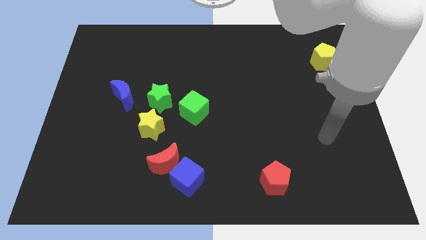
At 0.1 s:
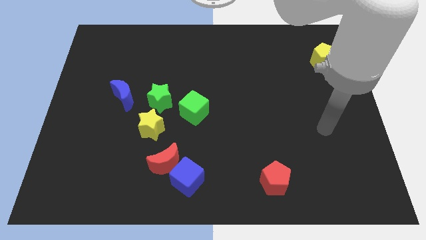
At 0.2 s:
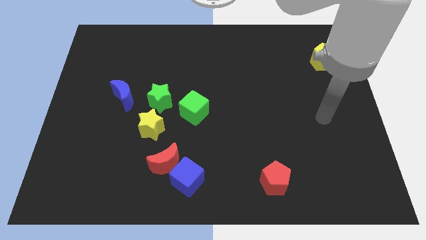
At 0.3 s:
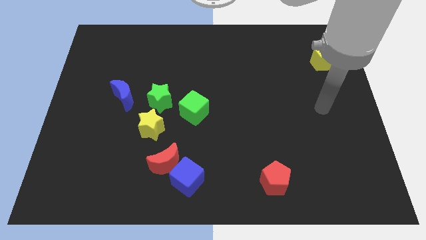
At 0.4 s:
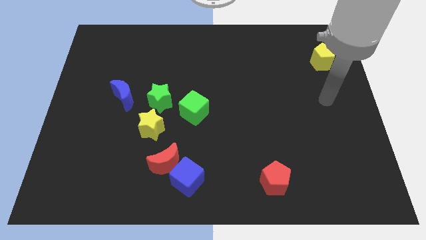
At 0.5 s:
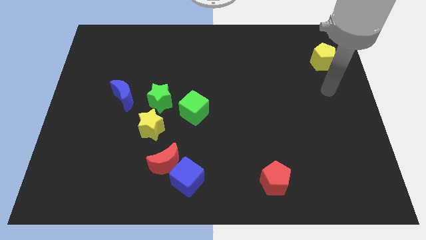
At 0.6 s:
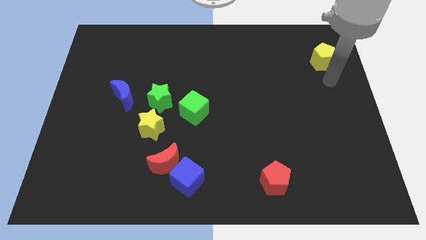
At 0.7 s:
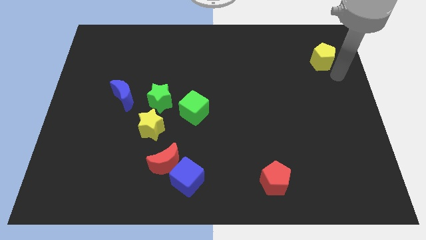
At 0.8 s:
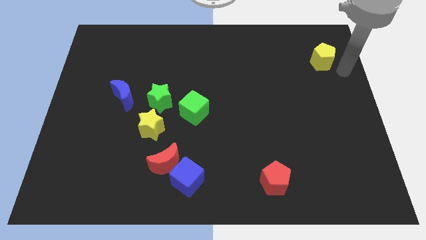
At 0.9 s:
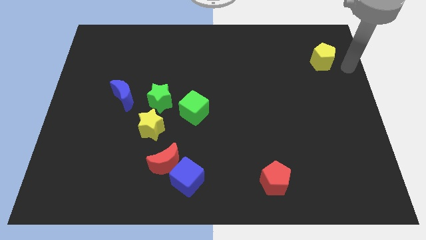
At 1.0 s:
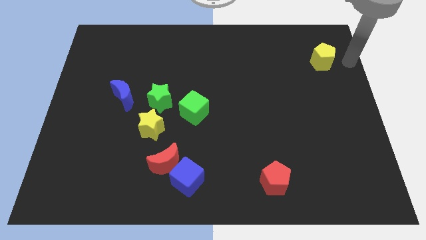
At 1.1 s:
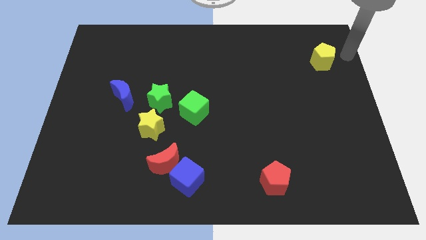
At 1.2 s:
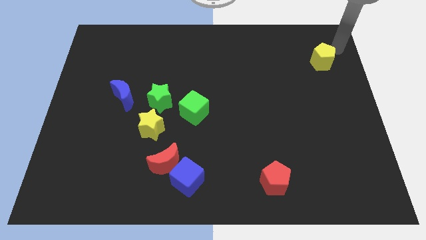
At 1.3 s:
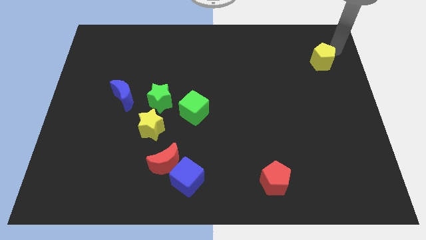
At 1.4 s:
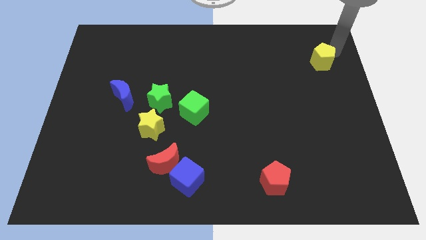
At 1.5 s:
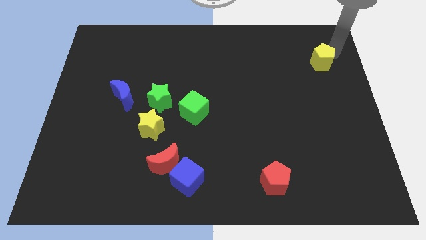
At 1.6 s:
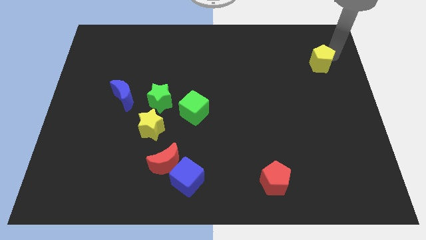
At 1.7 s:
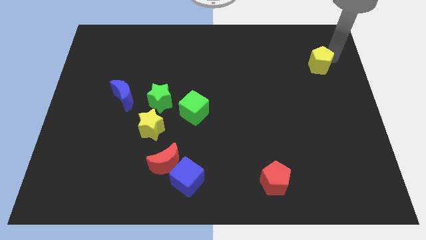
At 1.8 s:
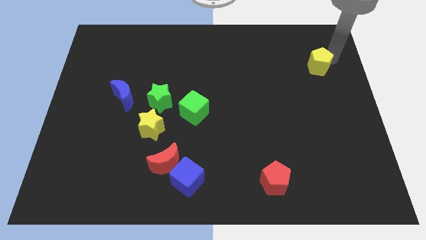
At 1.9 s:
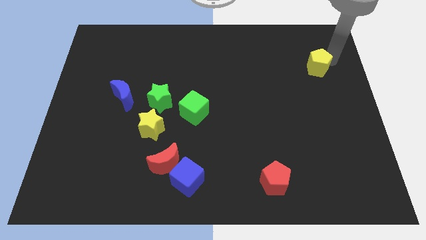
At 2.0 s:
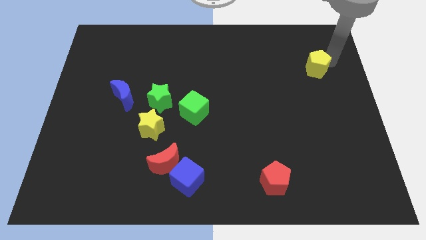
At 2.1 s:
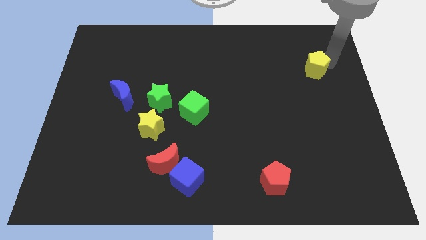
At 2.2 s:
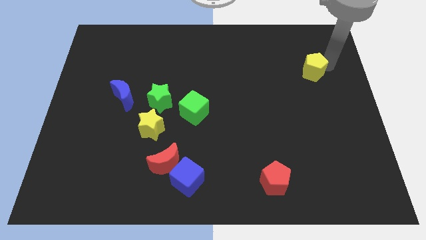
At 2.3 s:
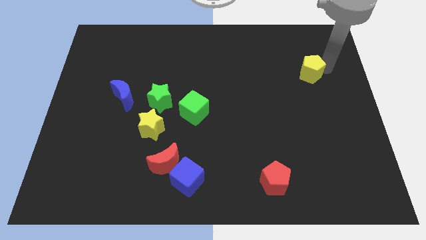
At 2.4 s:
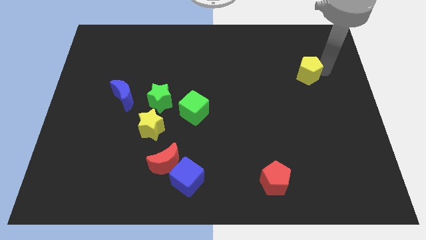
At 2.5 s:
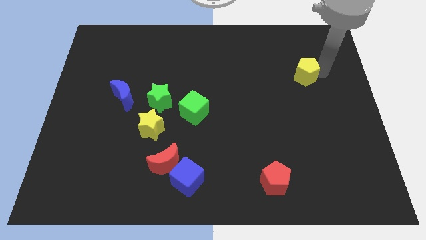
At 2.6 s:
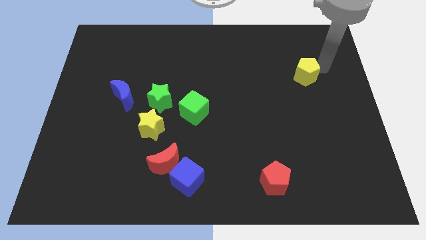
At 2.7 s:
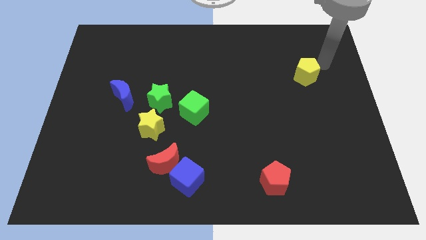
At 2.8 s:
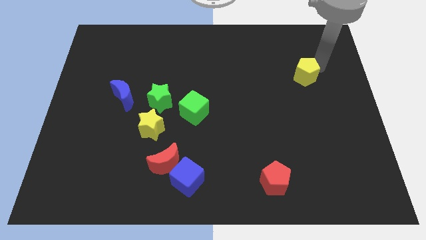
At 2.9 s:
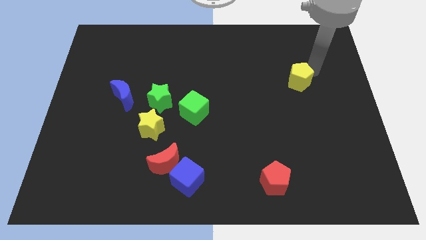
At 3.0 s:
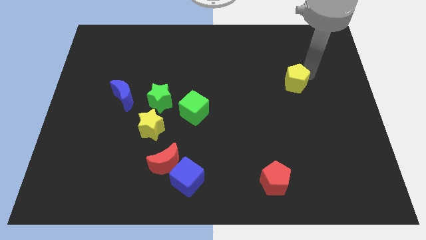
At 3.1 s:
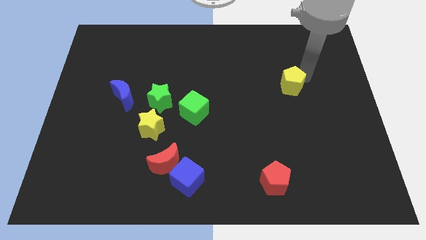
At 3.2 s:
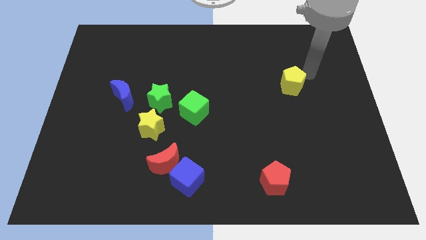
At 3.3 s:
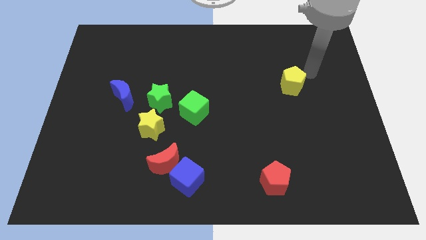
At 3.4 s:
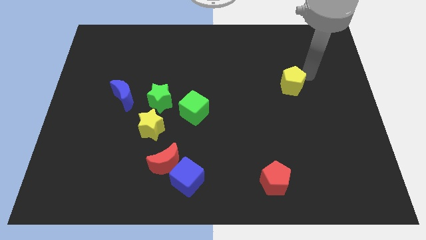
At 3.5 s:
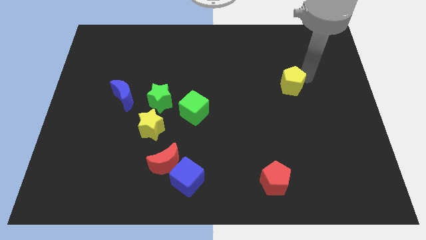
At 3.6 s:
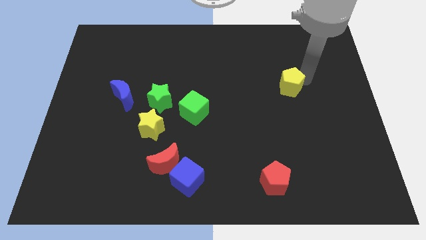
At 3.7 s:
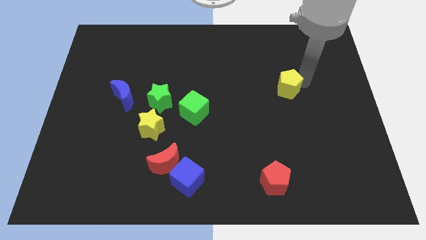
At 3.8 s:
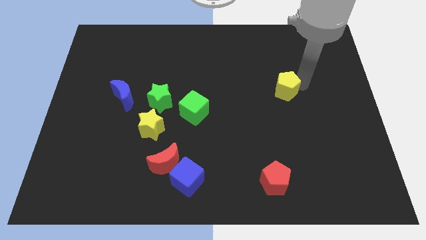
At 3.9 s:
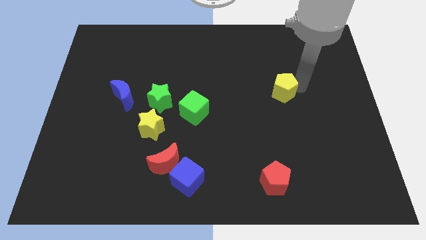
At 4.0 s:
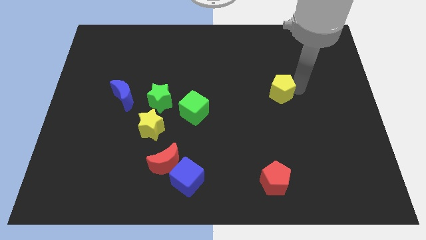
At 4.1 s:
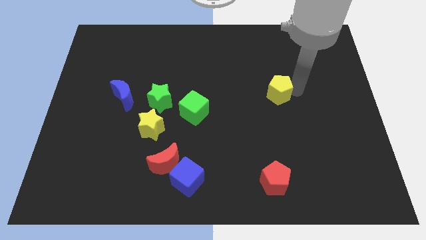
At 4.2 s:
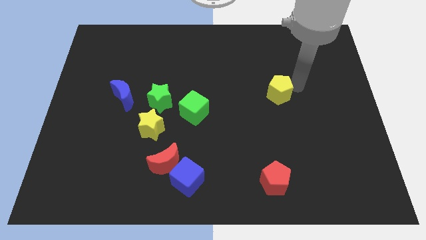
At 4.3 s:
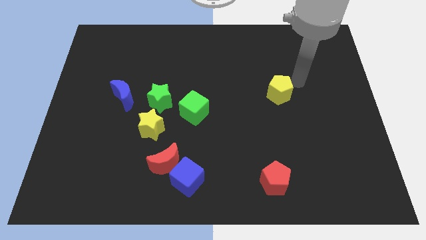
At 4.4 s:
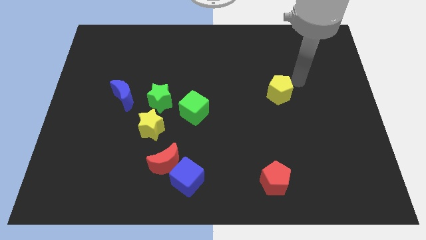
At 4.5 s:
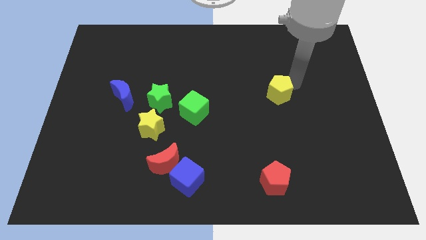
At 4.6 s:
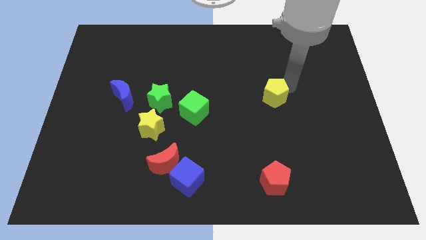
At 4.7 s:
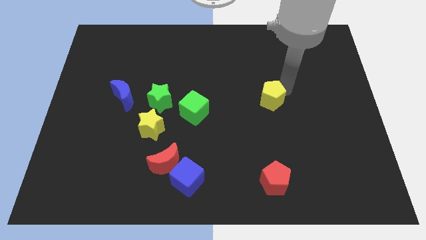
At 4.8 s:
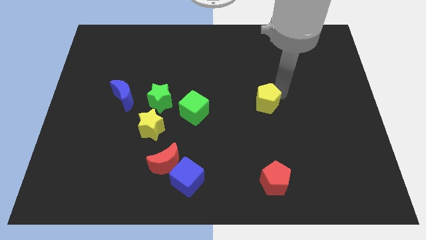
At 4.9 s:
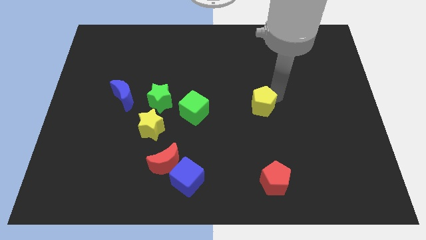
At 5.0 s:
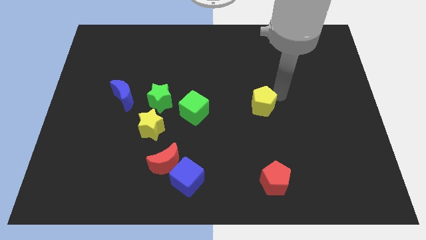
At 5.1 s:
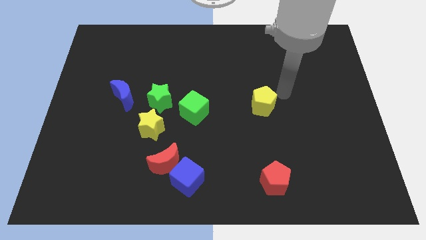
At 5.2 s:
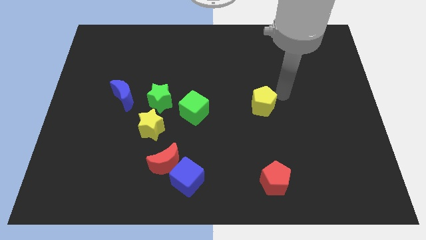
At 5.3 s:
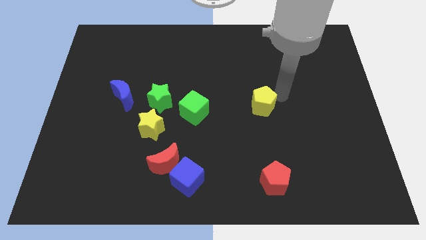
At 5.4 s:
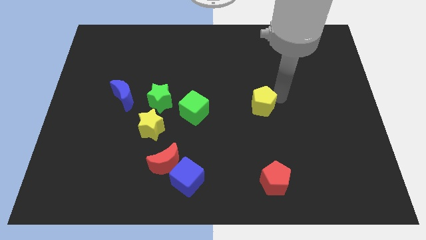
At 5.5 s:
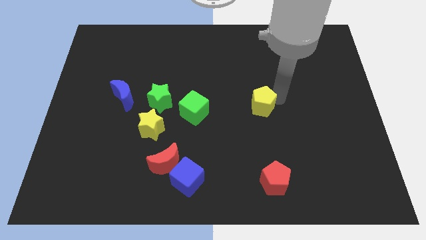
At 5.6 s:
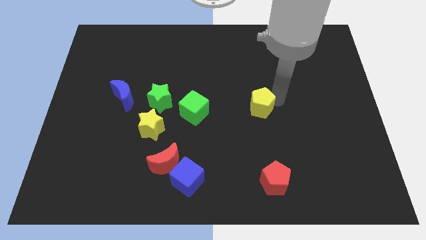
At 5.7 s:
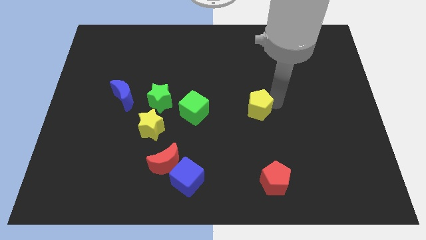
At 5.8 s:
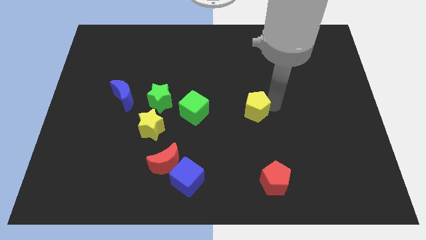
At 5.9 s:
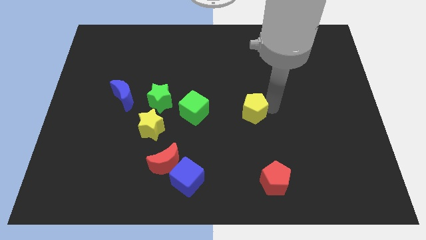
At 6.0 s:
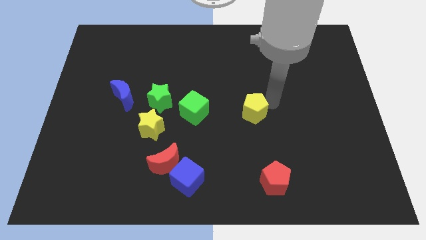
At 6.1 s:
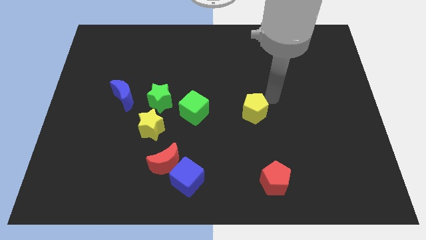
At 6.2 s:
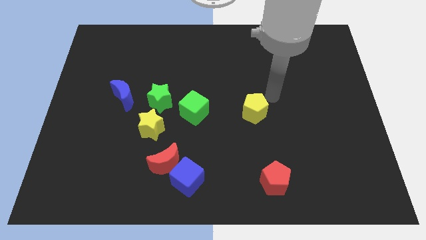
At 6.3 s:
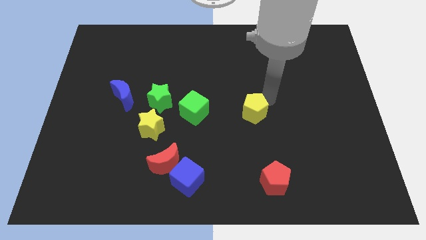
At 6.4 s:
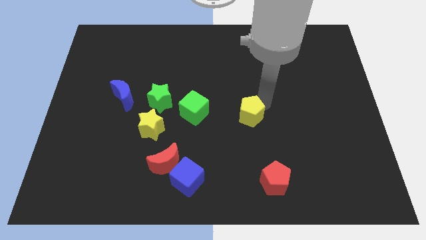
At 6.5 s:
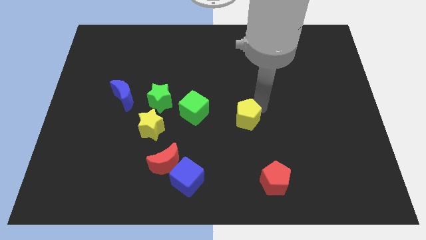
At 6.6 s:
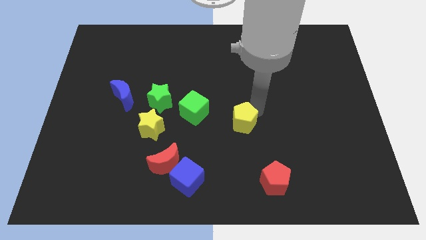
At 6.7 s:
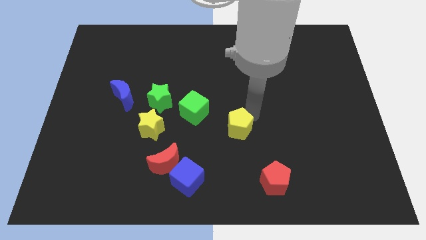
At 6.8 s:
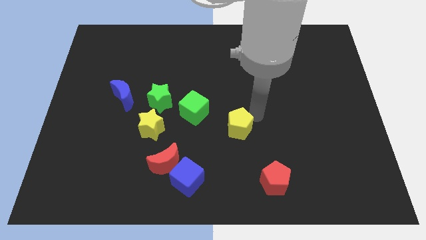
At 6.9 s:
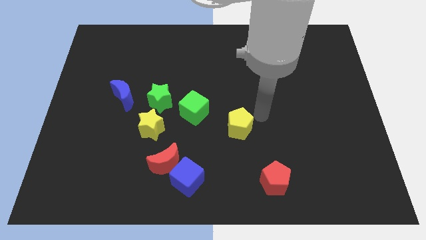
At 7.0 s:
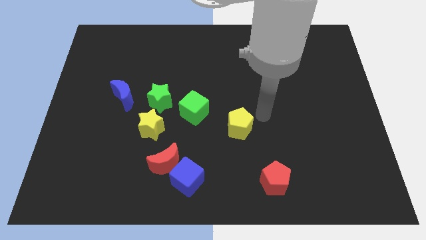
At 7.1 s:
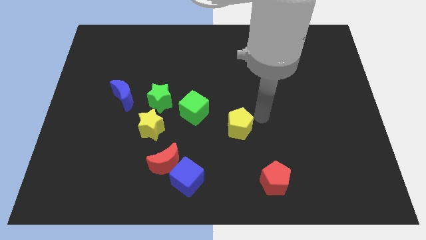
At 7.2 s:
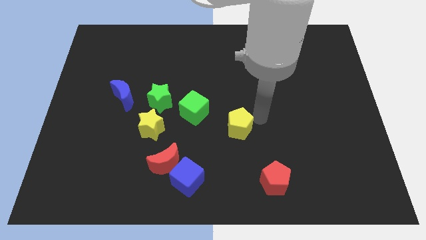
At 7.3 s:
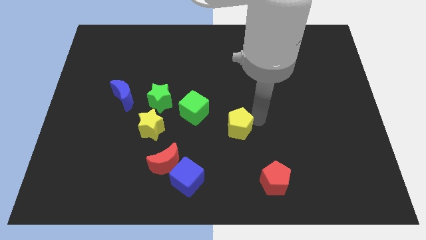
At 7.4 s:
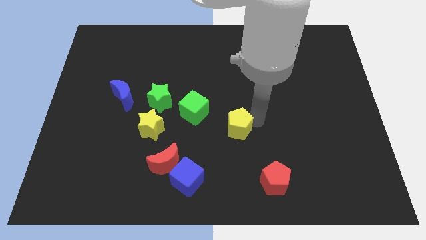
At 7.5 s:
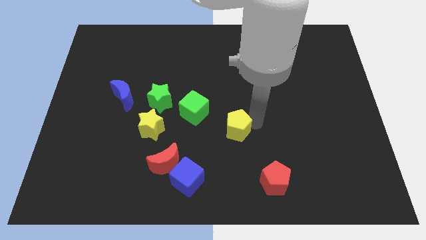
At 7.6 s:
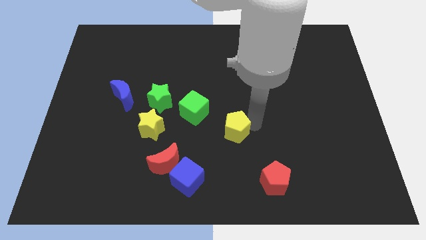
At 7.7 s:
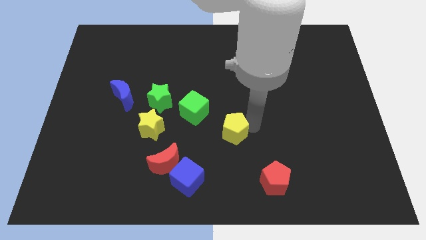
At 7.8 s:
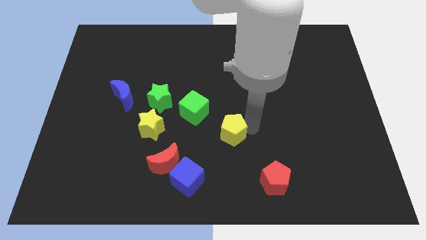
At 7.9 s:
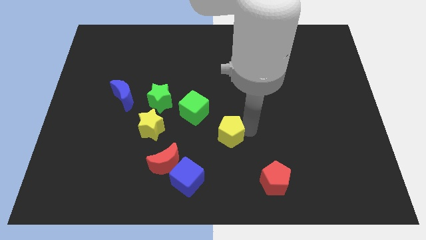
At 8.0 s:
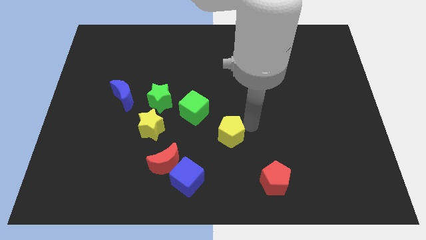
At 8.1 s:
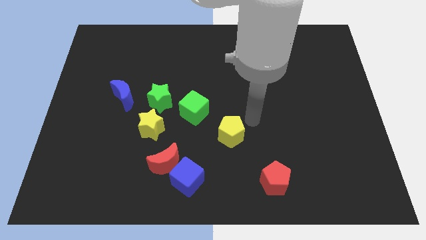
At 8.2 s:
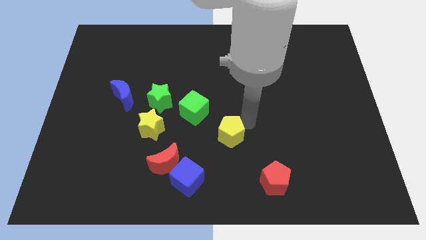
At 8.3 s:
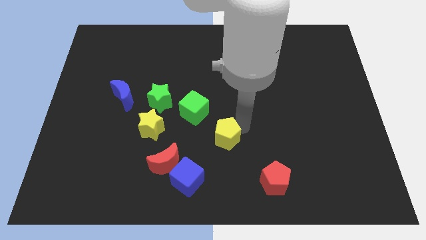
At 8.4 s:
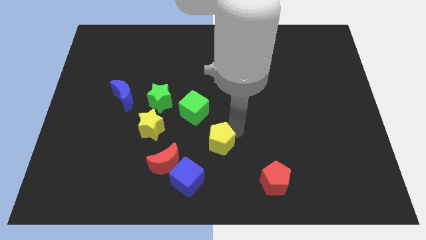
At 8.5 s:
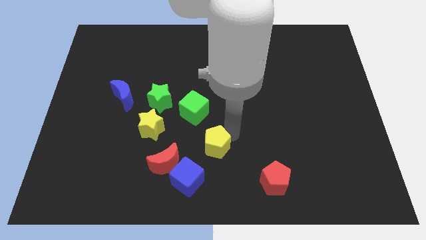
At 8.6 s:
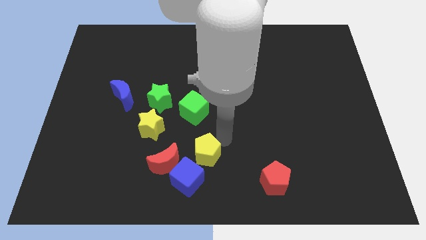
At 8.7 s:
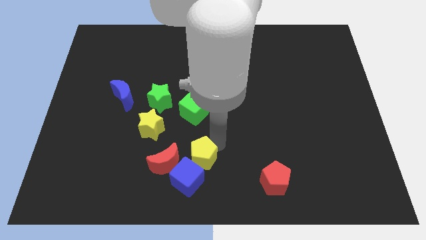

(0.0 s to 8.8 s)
push the yellow pentagon close to the blue cube
